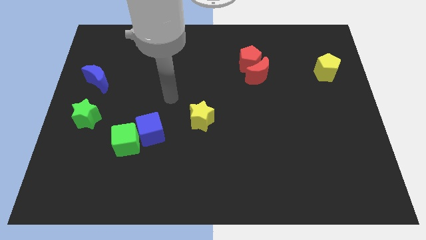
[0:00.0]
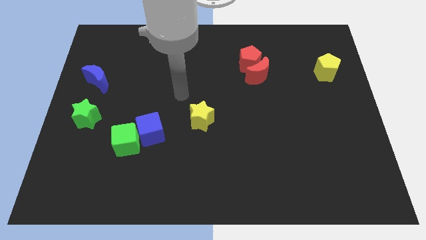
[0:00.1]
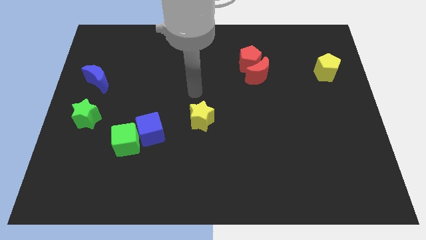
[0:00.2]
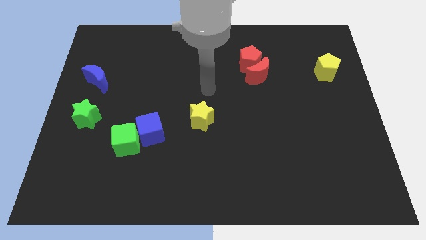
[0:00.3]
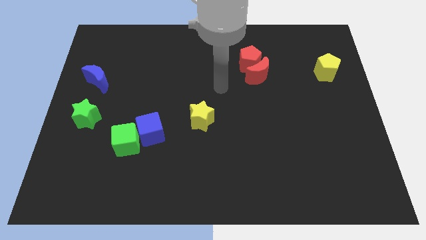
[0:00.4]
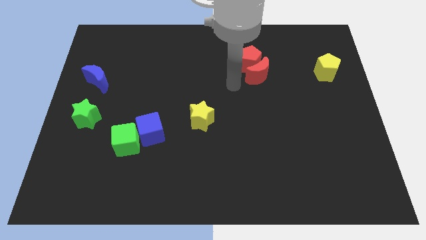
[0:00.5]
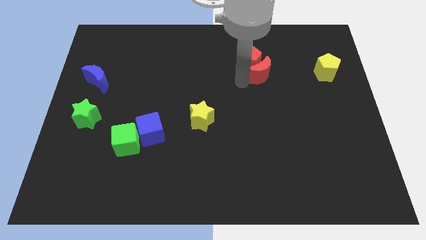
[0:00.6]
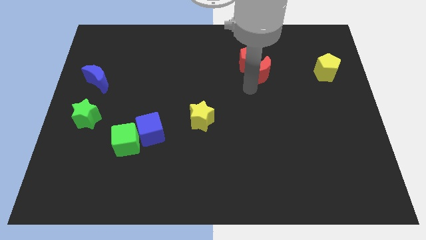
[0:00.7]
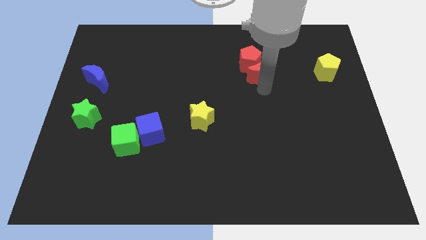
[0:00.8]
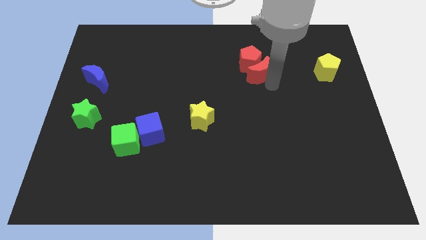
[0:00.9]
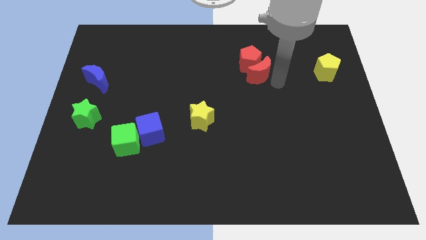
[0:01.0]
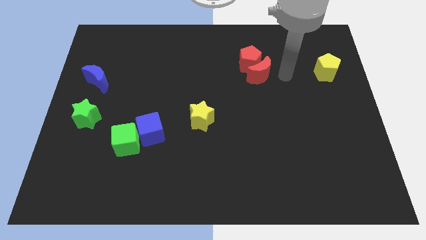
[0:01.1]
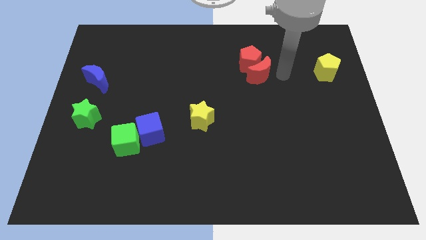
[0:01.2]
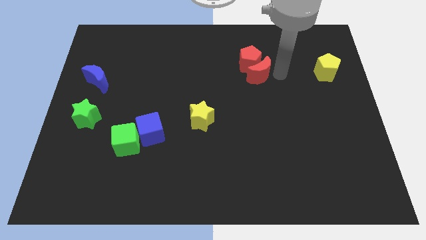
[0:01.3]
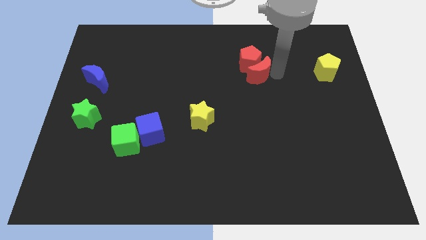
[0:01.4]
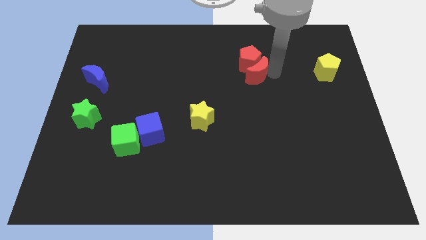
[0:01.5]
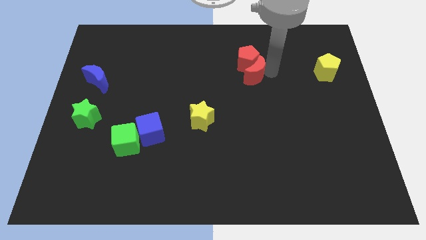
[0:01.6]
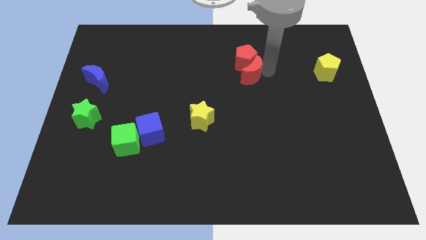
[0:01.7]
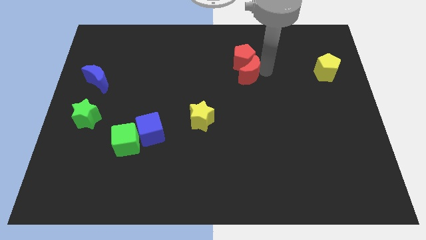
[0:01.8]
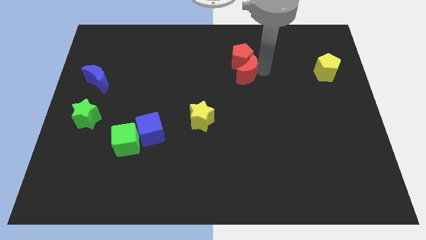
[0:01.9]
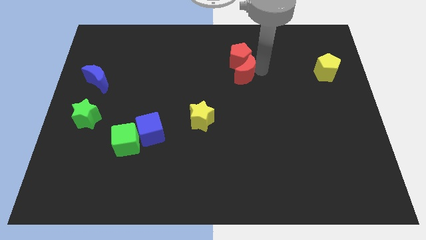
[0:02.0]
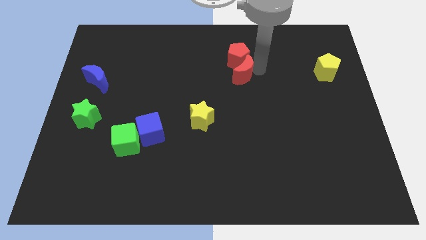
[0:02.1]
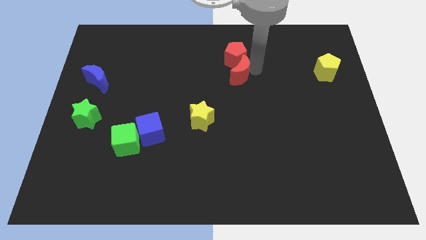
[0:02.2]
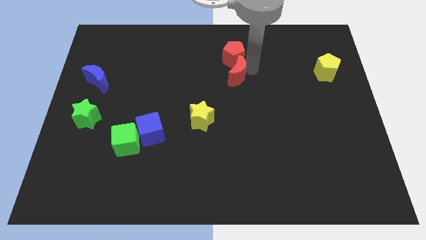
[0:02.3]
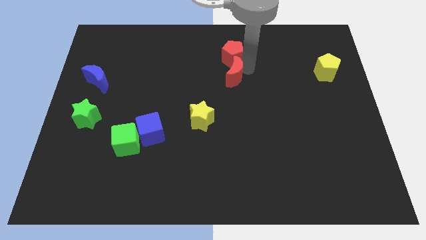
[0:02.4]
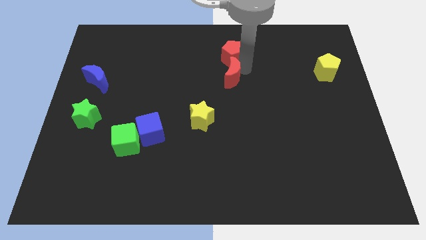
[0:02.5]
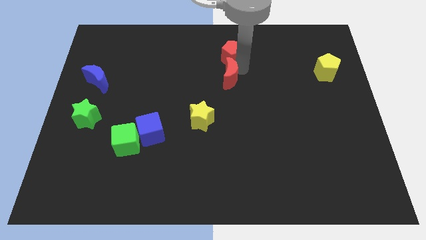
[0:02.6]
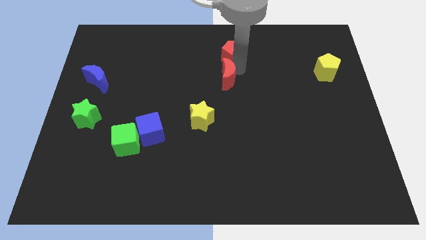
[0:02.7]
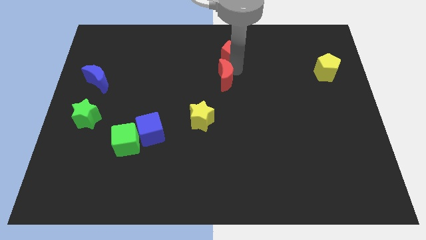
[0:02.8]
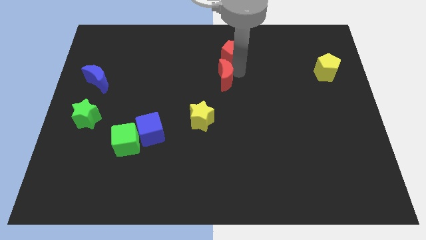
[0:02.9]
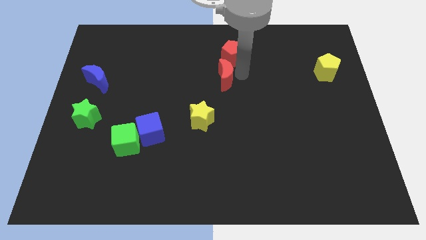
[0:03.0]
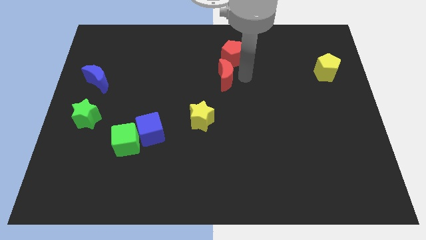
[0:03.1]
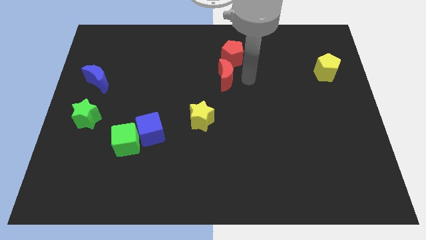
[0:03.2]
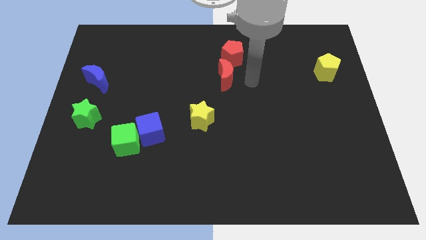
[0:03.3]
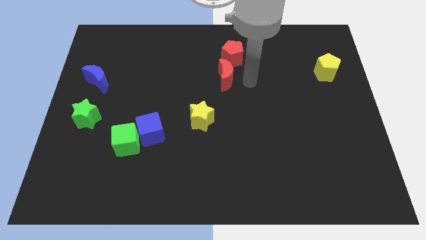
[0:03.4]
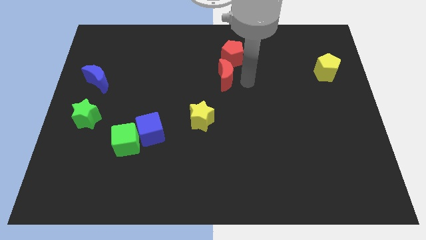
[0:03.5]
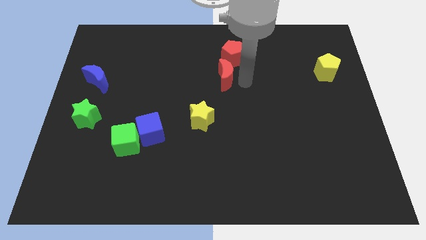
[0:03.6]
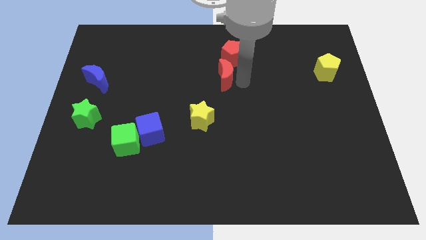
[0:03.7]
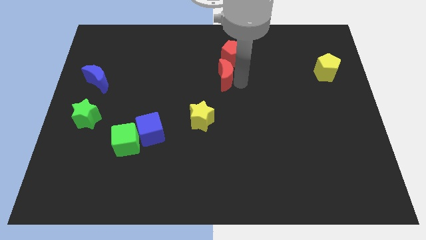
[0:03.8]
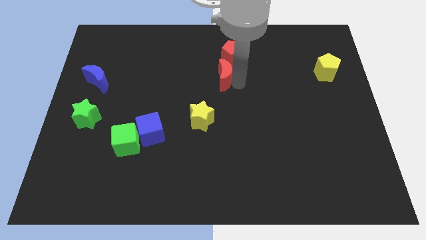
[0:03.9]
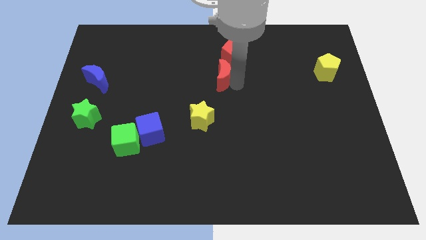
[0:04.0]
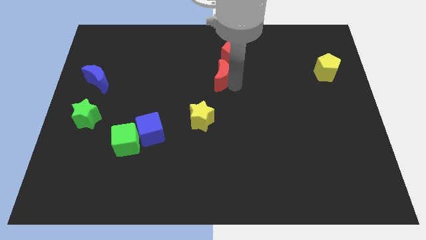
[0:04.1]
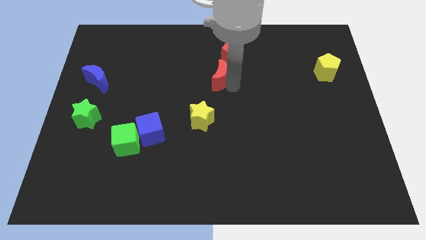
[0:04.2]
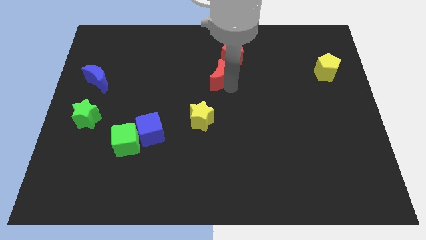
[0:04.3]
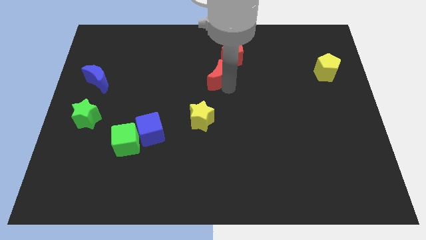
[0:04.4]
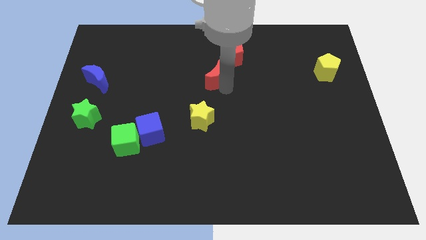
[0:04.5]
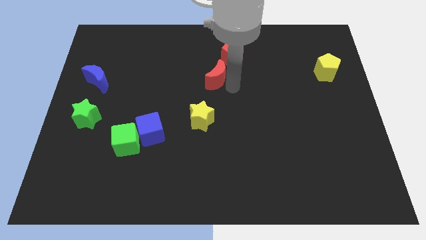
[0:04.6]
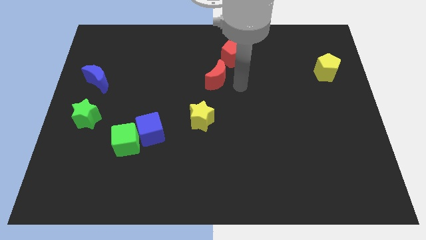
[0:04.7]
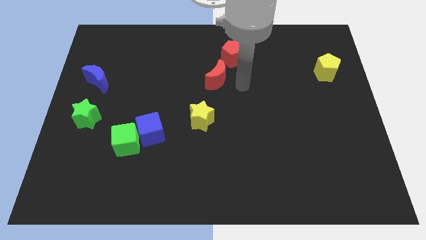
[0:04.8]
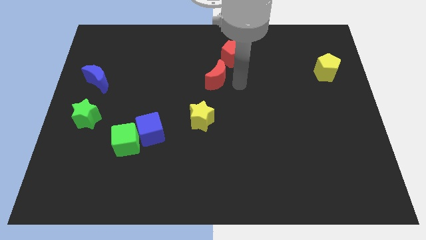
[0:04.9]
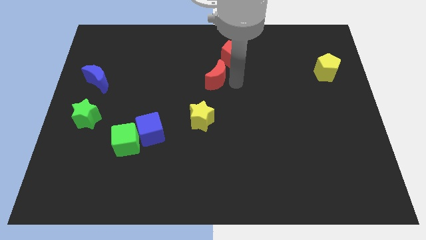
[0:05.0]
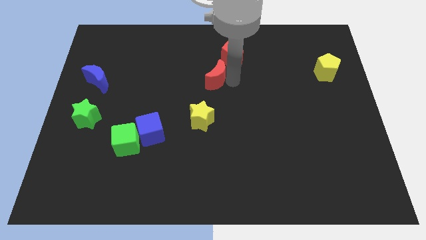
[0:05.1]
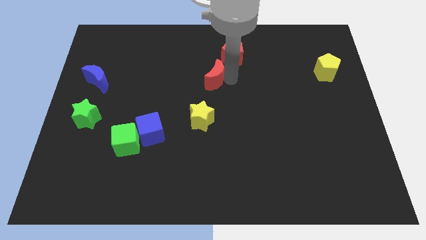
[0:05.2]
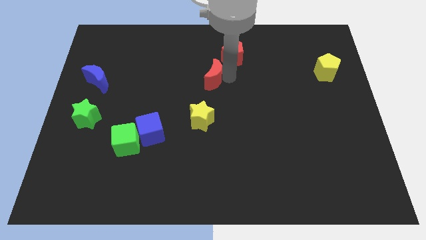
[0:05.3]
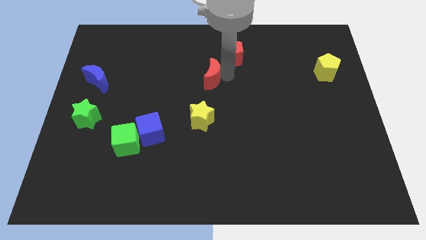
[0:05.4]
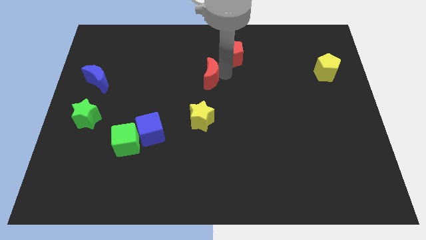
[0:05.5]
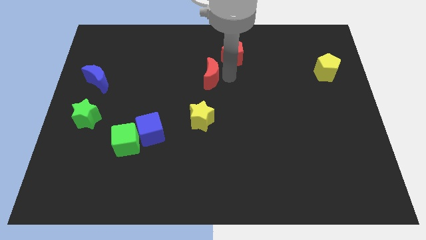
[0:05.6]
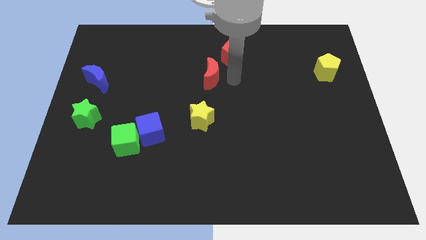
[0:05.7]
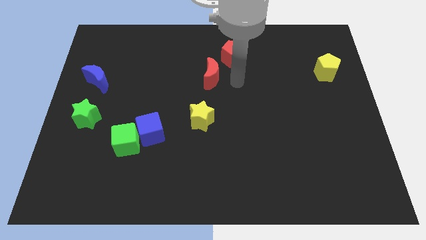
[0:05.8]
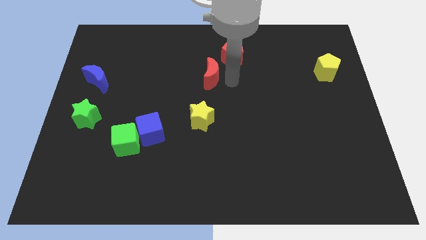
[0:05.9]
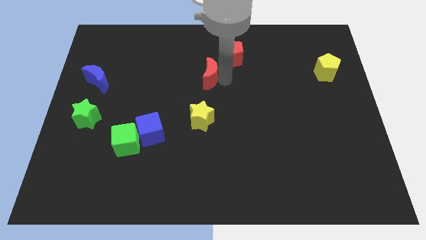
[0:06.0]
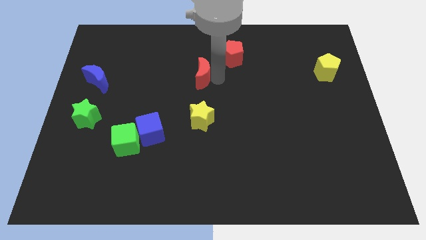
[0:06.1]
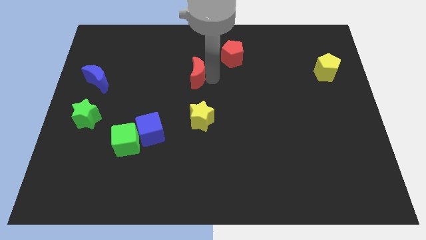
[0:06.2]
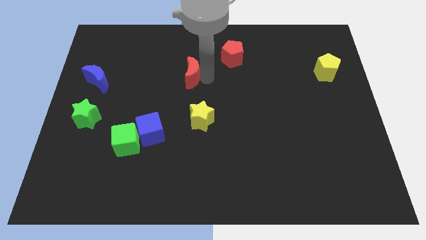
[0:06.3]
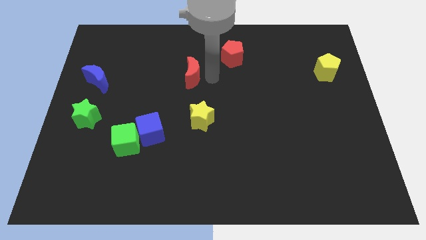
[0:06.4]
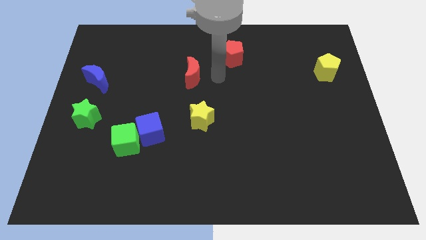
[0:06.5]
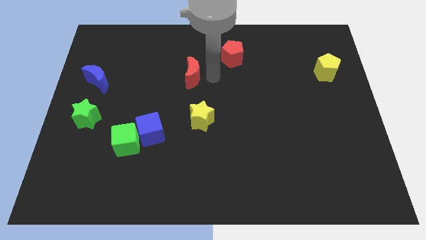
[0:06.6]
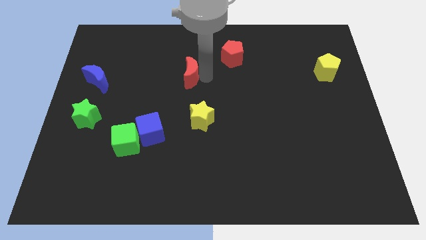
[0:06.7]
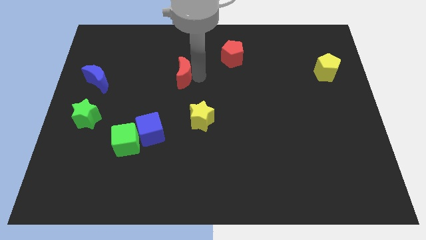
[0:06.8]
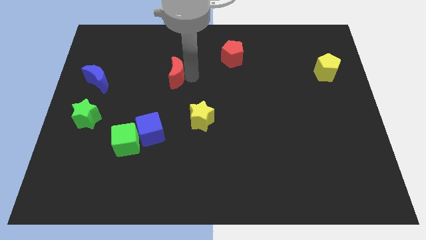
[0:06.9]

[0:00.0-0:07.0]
move the red moon left

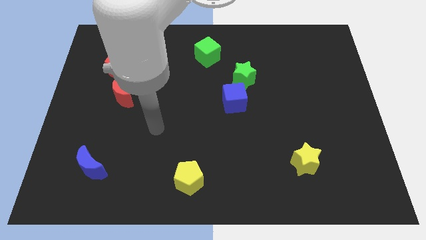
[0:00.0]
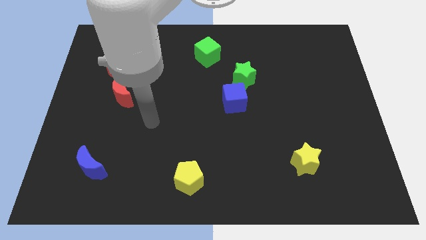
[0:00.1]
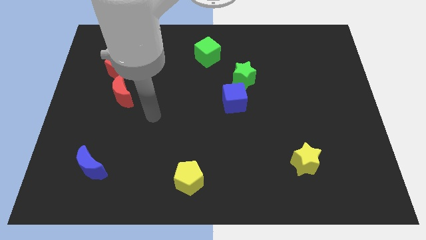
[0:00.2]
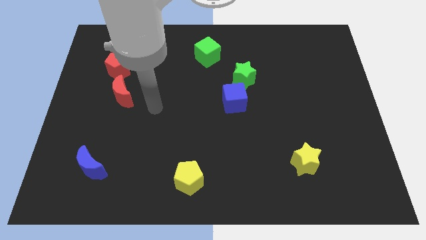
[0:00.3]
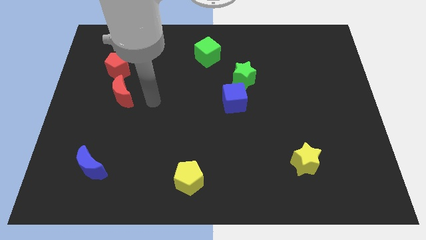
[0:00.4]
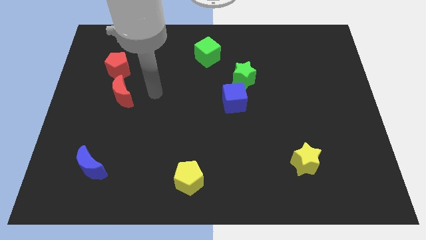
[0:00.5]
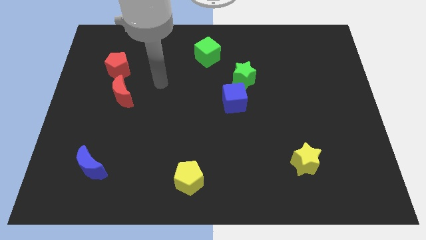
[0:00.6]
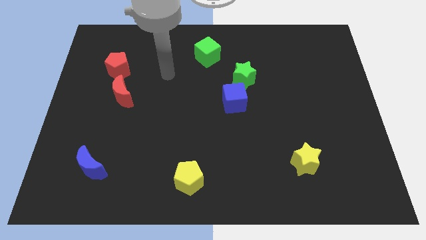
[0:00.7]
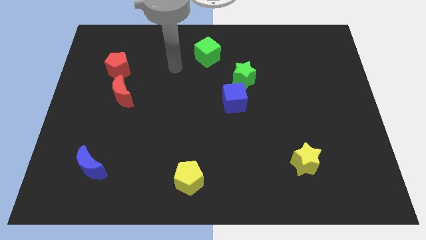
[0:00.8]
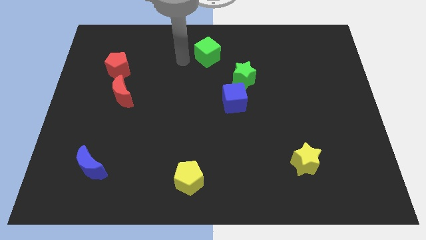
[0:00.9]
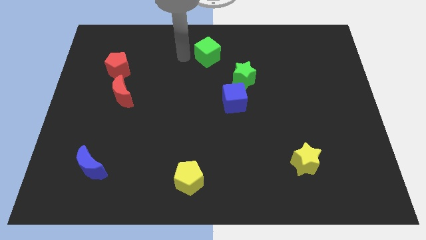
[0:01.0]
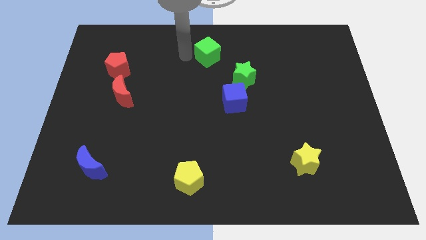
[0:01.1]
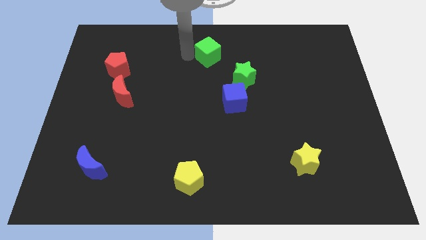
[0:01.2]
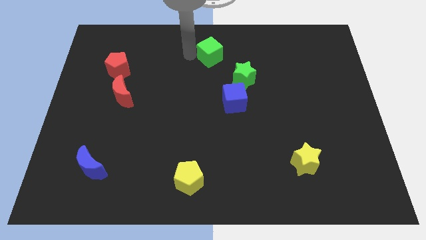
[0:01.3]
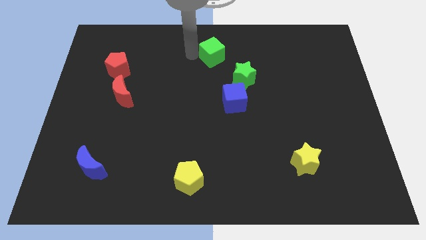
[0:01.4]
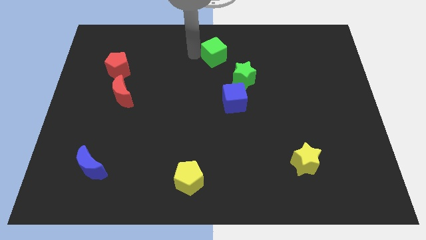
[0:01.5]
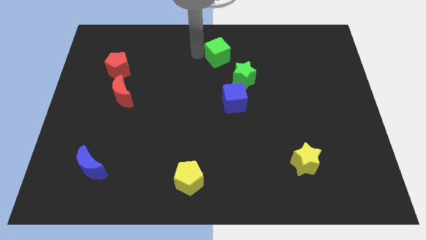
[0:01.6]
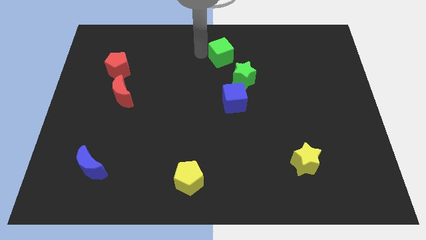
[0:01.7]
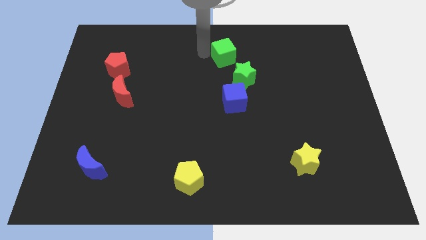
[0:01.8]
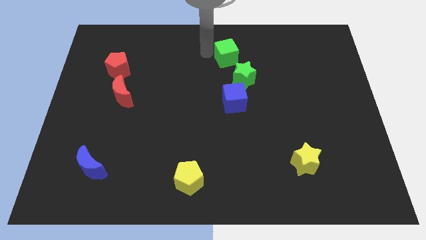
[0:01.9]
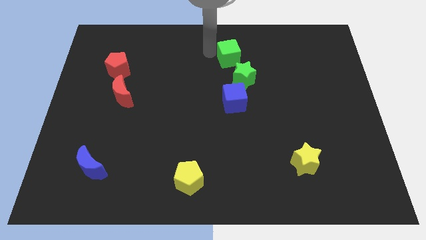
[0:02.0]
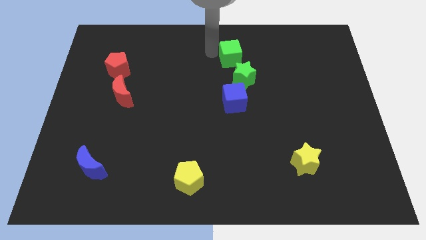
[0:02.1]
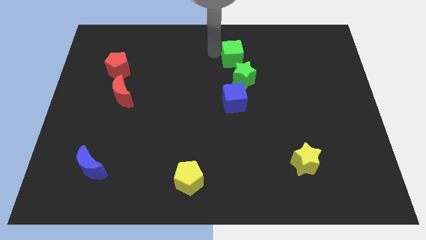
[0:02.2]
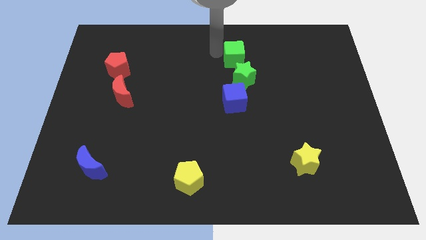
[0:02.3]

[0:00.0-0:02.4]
slide the green cube a little right
